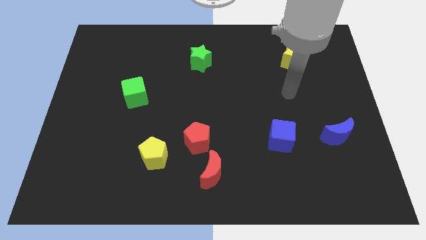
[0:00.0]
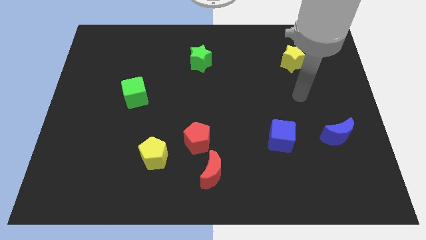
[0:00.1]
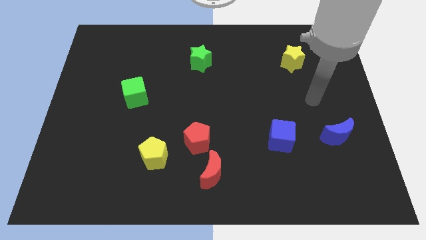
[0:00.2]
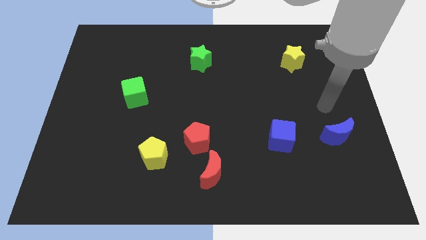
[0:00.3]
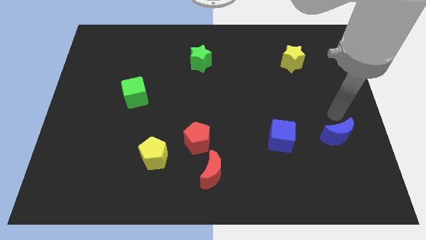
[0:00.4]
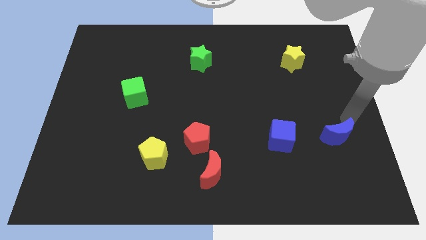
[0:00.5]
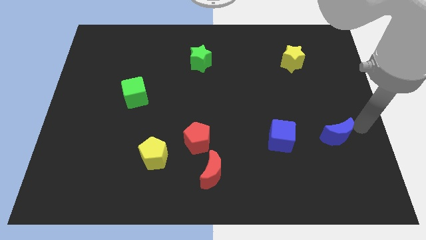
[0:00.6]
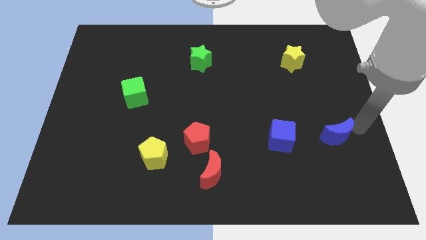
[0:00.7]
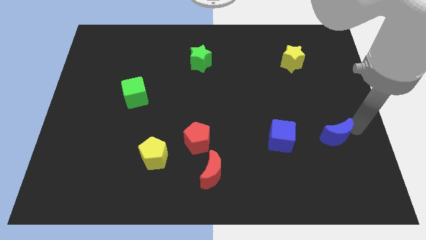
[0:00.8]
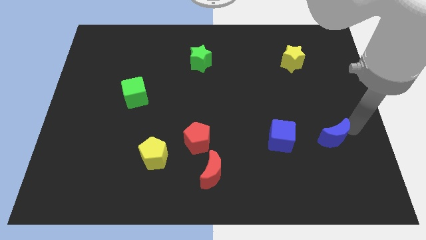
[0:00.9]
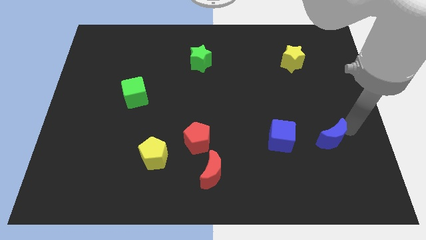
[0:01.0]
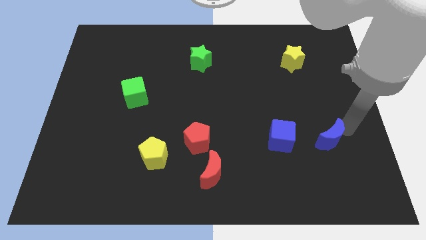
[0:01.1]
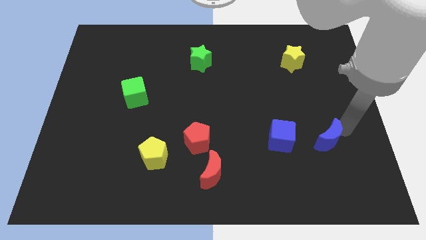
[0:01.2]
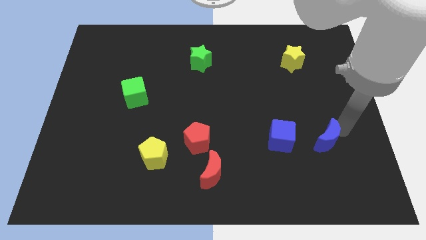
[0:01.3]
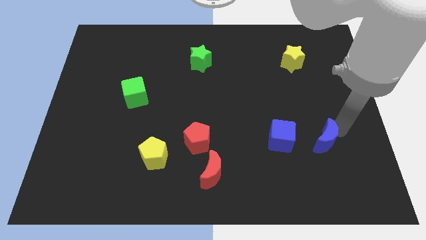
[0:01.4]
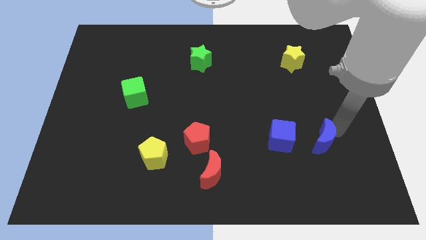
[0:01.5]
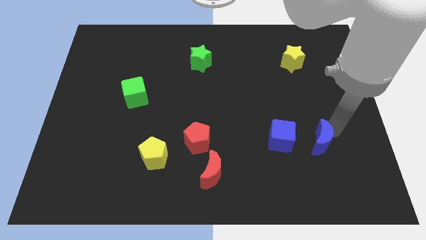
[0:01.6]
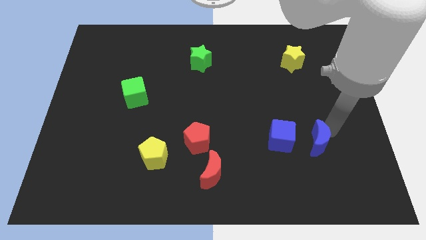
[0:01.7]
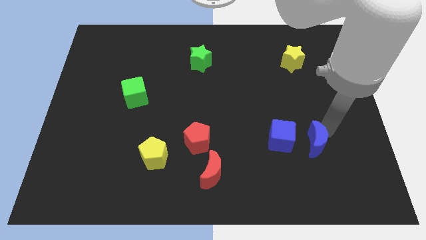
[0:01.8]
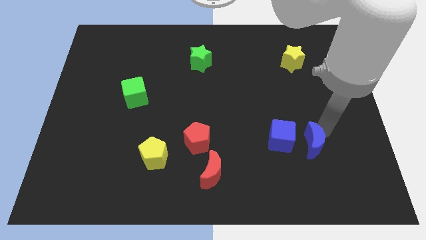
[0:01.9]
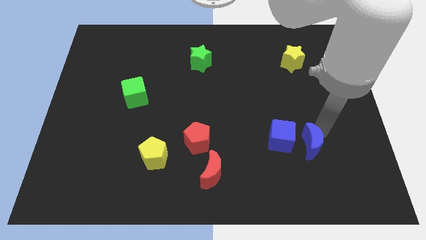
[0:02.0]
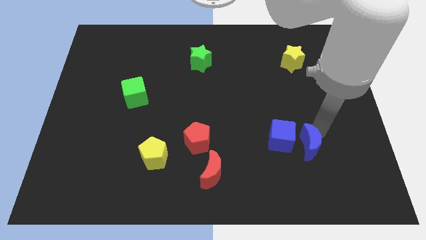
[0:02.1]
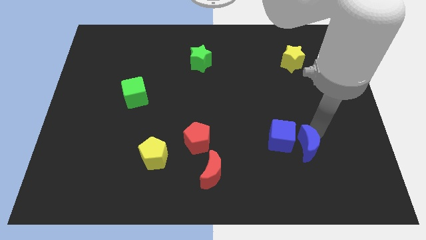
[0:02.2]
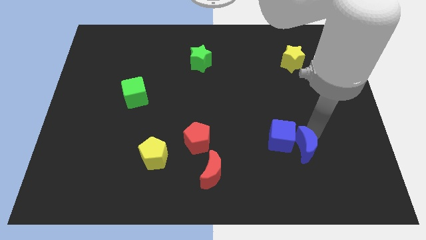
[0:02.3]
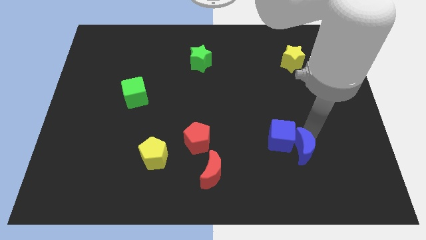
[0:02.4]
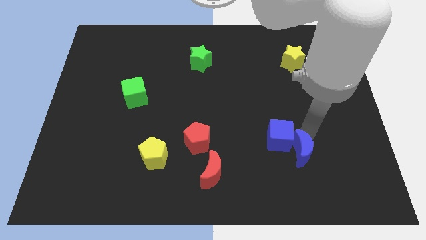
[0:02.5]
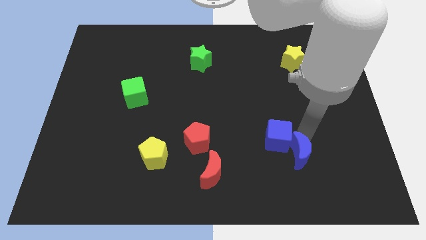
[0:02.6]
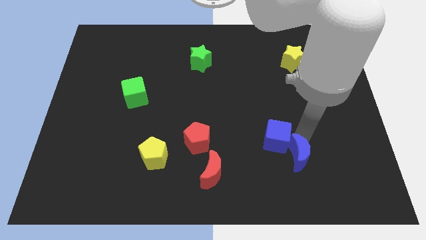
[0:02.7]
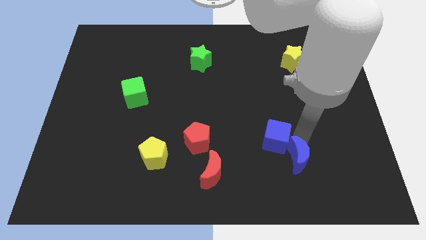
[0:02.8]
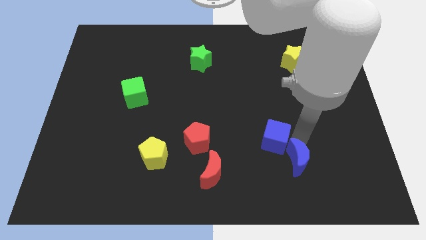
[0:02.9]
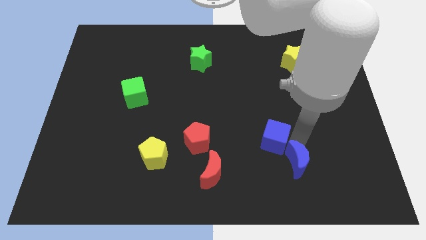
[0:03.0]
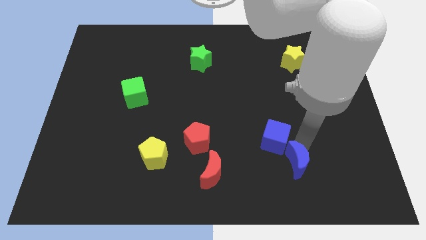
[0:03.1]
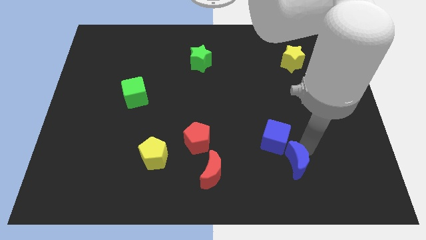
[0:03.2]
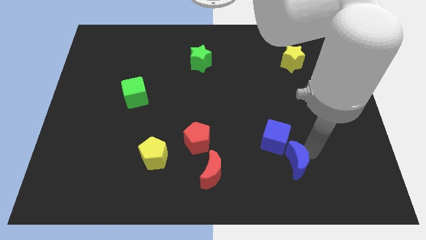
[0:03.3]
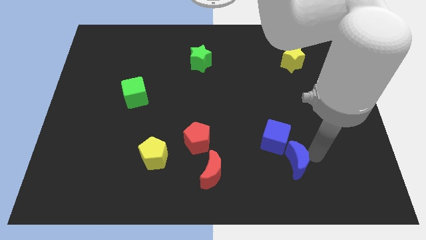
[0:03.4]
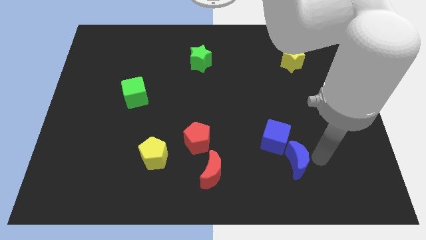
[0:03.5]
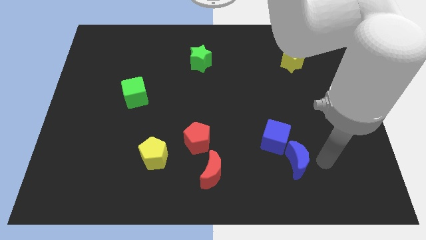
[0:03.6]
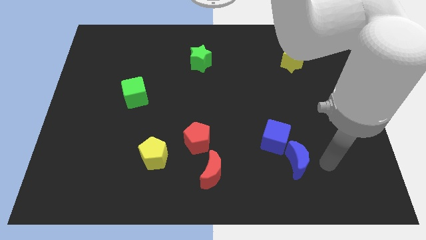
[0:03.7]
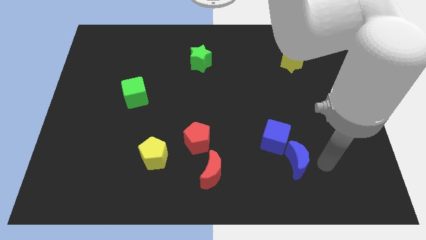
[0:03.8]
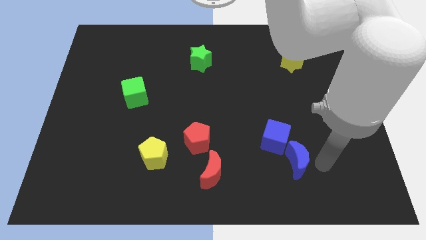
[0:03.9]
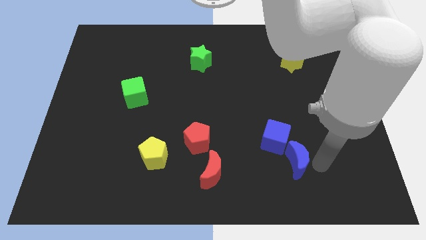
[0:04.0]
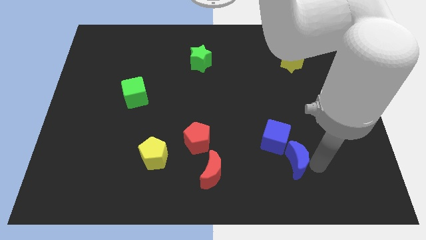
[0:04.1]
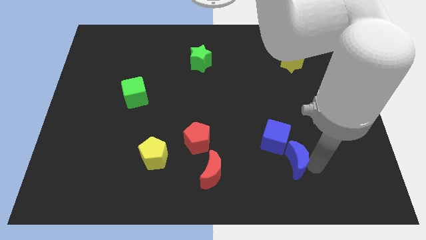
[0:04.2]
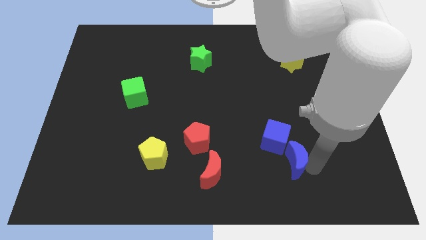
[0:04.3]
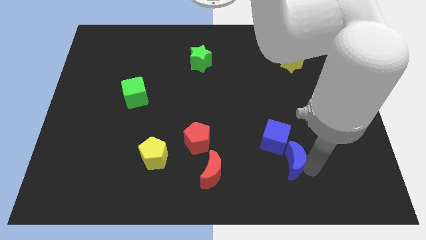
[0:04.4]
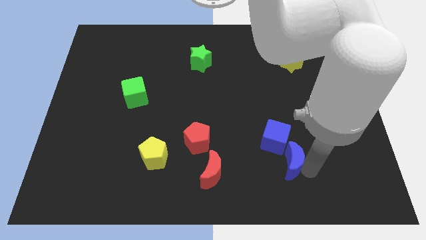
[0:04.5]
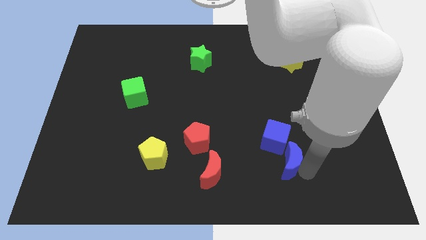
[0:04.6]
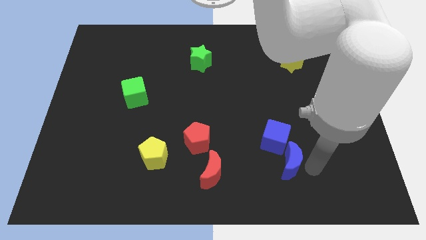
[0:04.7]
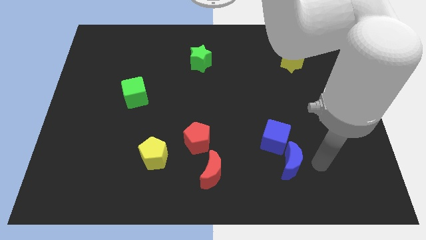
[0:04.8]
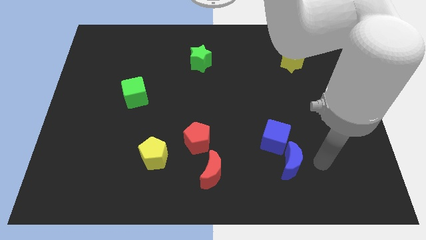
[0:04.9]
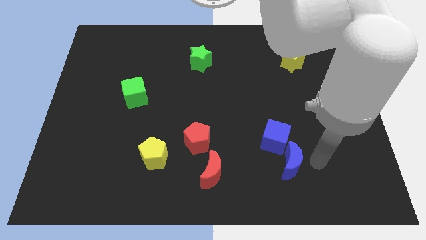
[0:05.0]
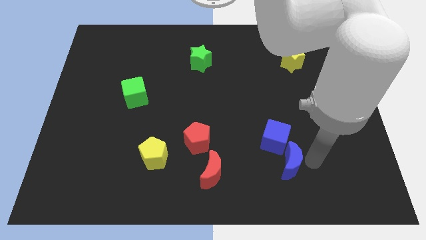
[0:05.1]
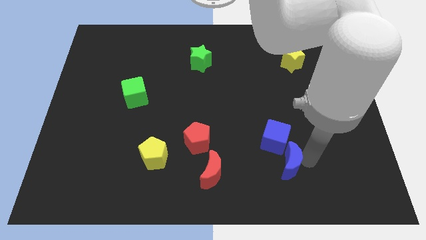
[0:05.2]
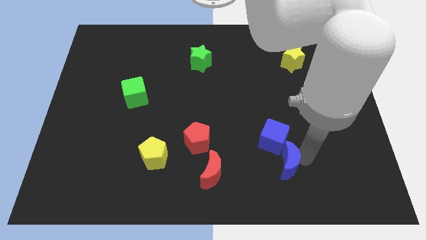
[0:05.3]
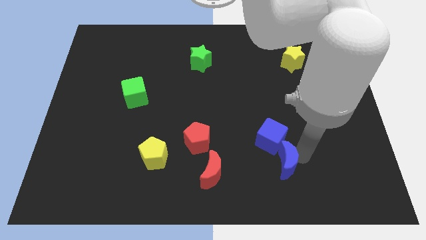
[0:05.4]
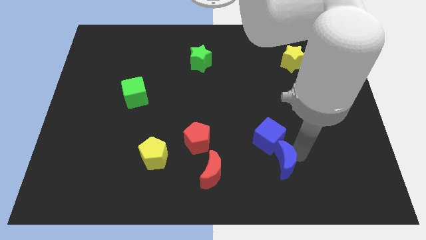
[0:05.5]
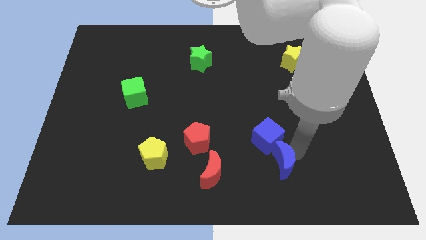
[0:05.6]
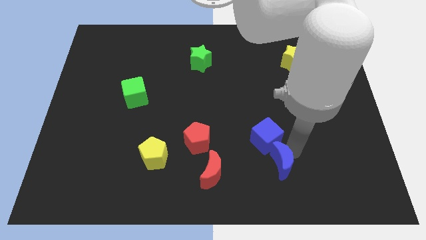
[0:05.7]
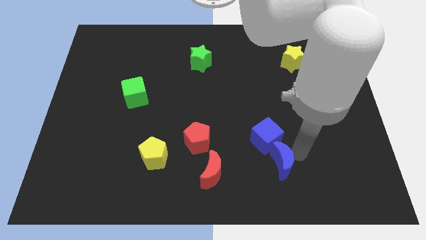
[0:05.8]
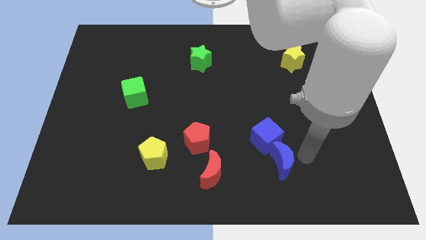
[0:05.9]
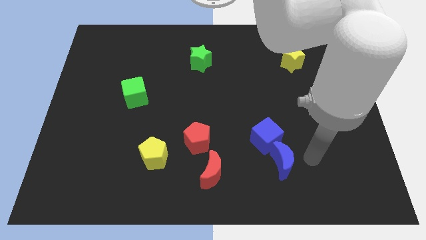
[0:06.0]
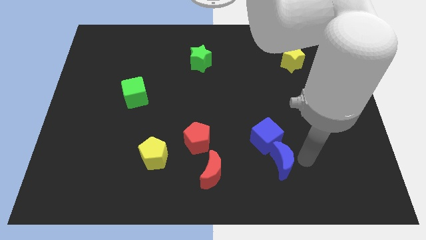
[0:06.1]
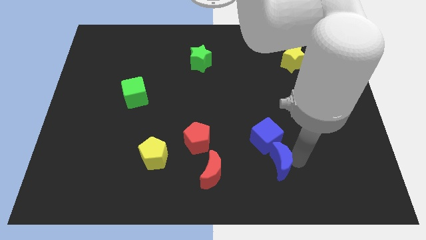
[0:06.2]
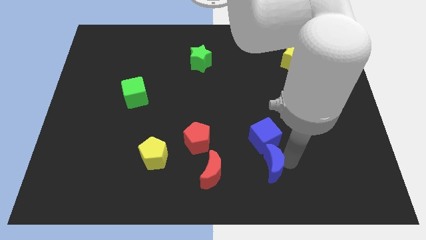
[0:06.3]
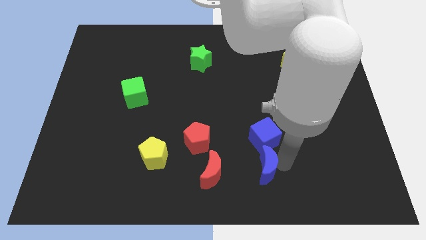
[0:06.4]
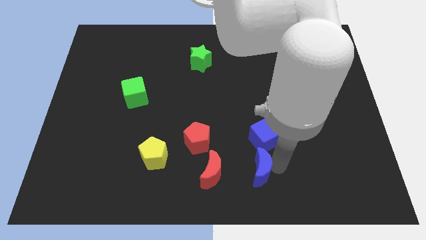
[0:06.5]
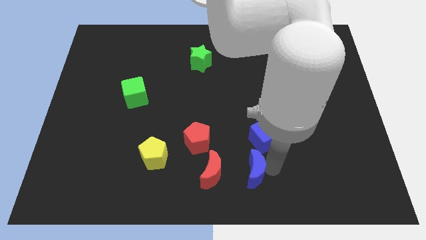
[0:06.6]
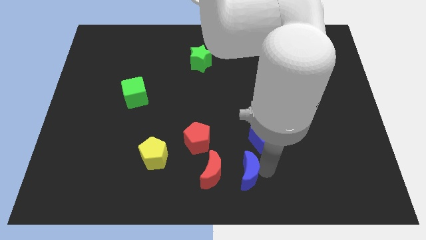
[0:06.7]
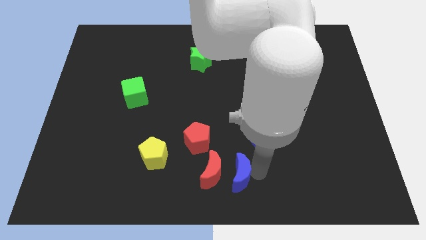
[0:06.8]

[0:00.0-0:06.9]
move the blue moon towards the red moon
